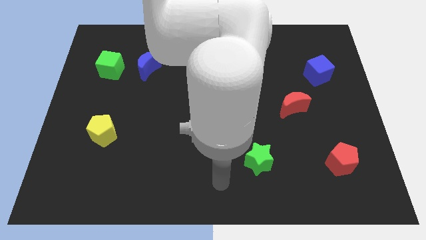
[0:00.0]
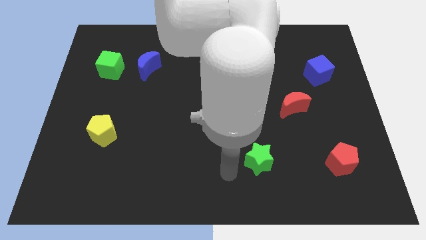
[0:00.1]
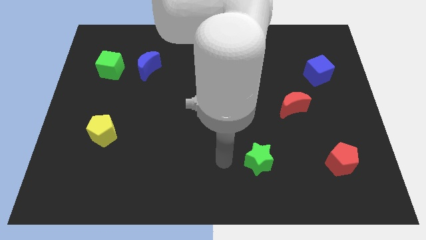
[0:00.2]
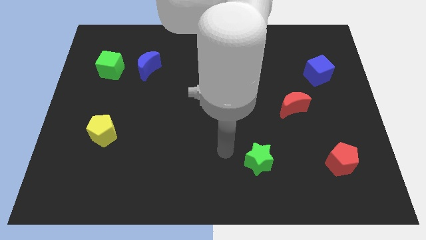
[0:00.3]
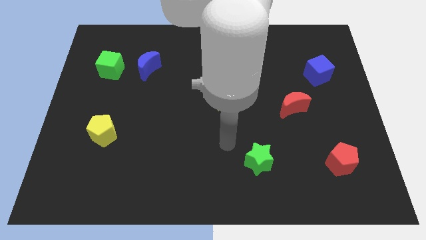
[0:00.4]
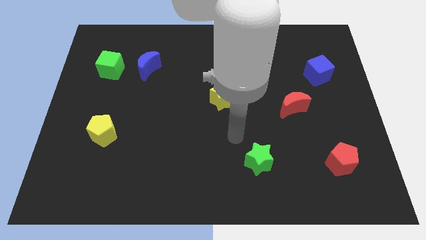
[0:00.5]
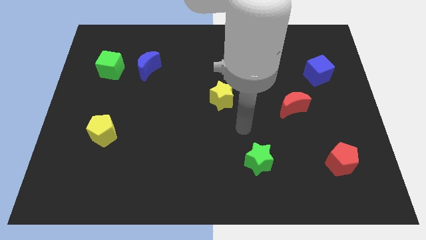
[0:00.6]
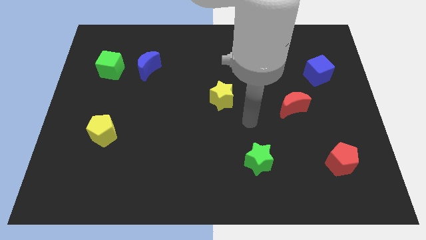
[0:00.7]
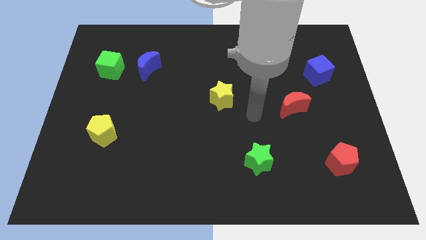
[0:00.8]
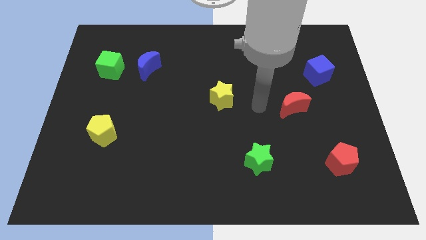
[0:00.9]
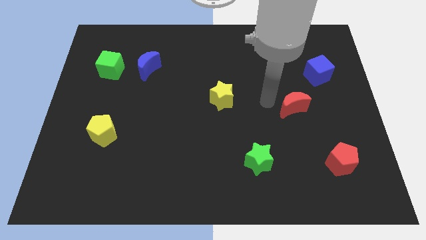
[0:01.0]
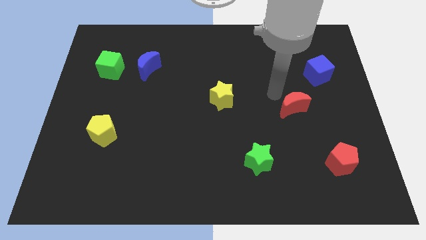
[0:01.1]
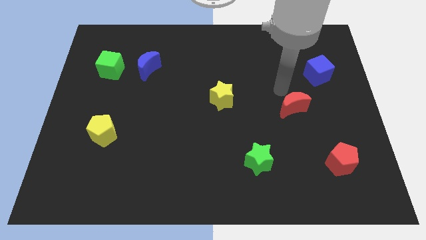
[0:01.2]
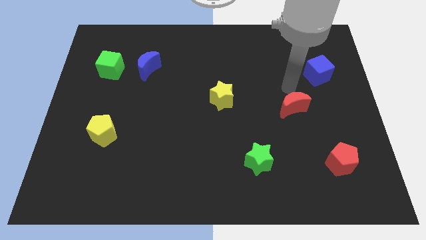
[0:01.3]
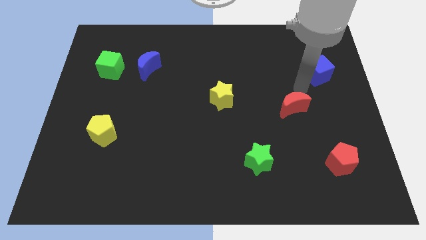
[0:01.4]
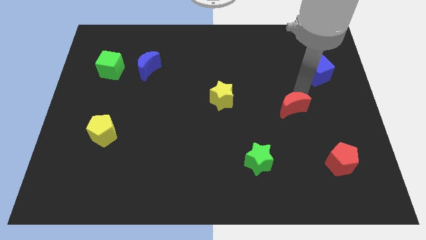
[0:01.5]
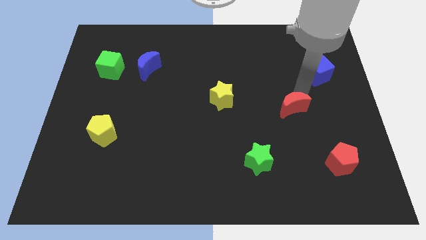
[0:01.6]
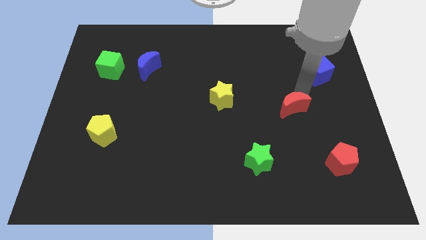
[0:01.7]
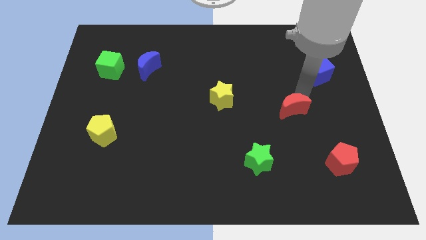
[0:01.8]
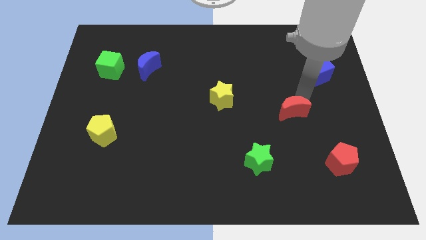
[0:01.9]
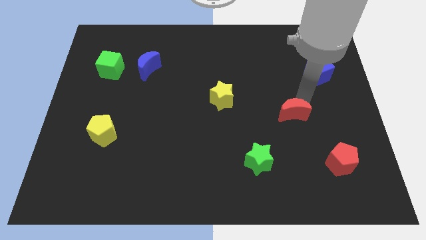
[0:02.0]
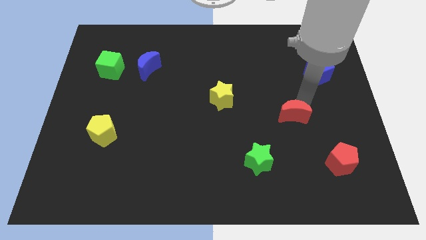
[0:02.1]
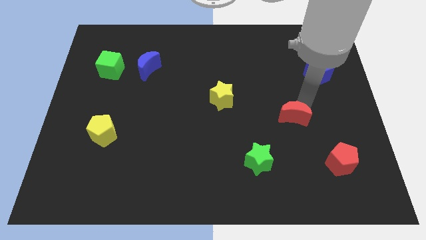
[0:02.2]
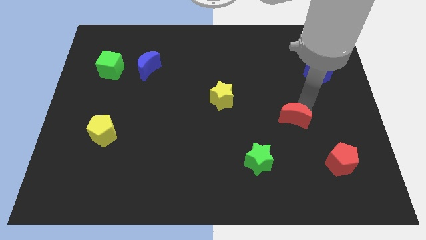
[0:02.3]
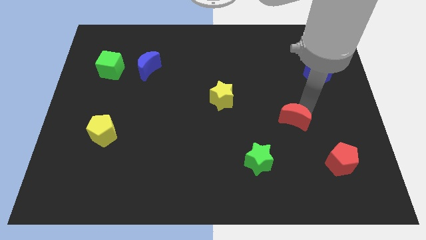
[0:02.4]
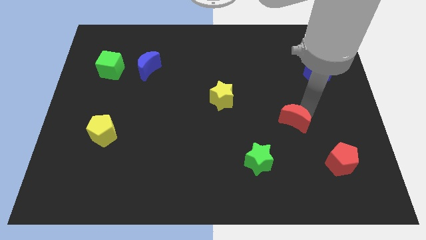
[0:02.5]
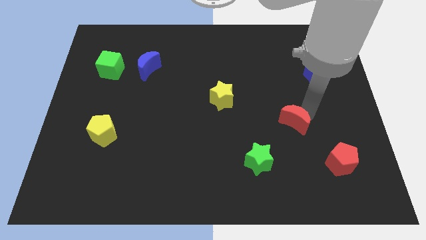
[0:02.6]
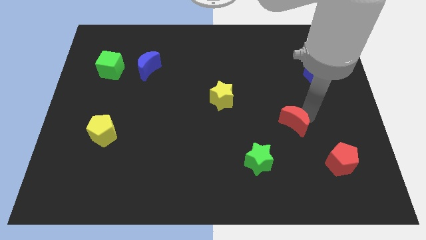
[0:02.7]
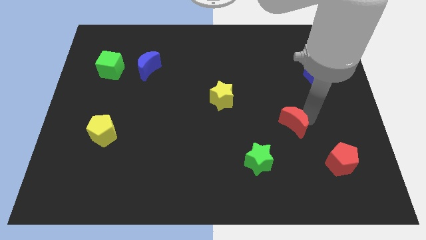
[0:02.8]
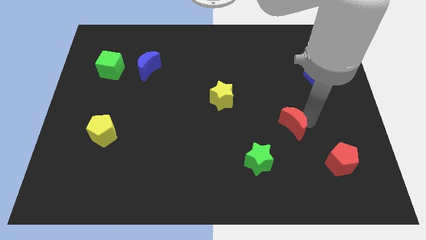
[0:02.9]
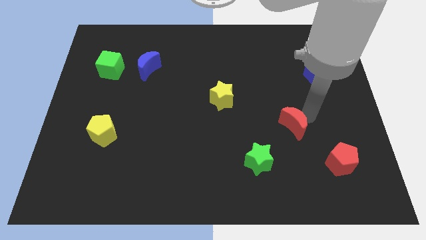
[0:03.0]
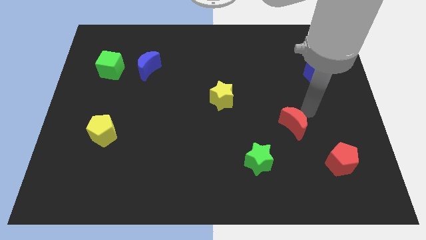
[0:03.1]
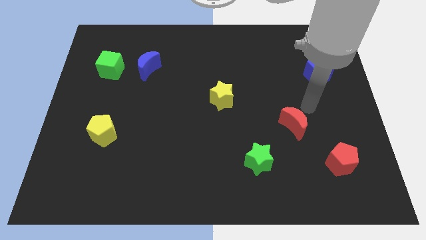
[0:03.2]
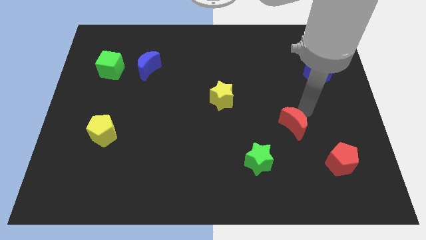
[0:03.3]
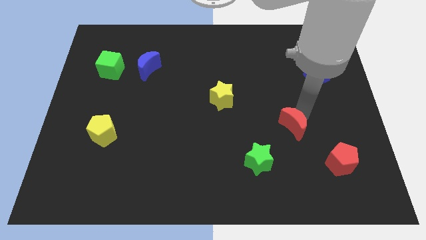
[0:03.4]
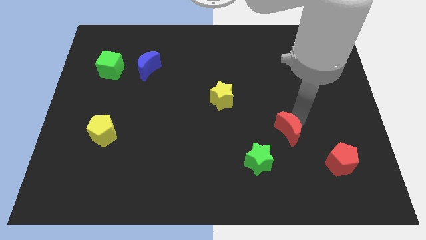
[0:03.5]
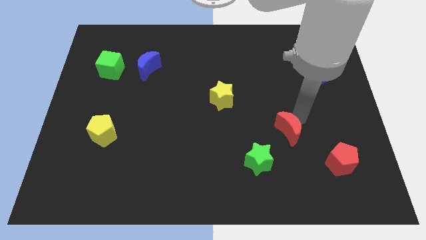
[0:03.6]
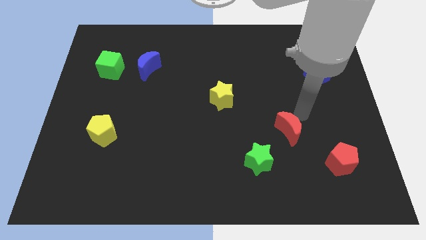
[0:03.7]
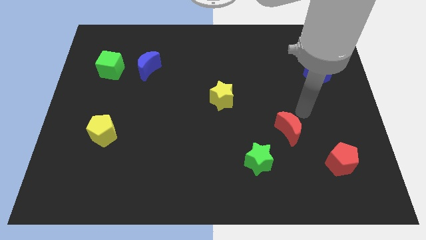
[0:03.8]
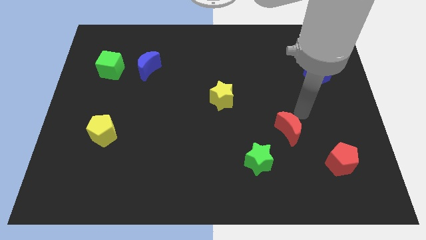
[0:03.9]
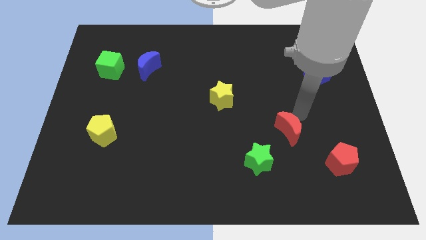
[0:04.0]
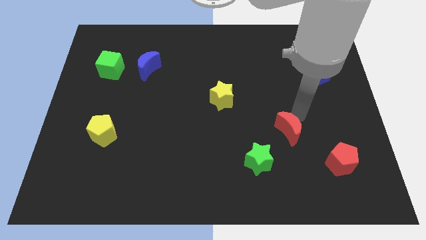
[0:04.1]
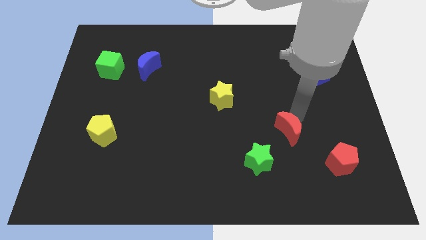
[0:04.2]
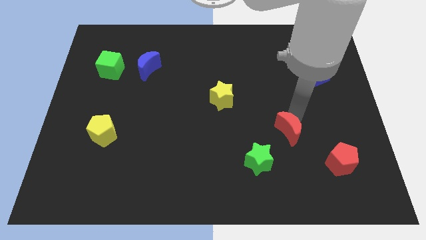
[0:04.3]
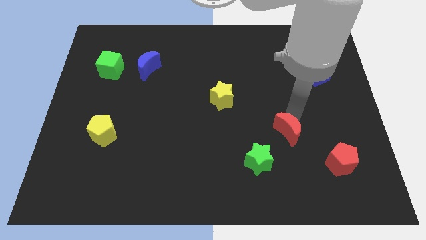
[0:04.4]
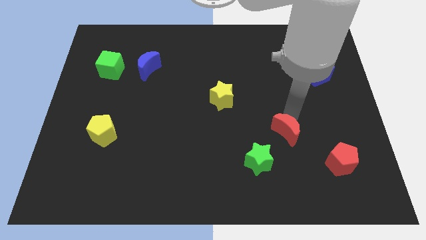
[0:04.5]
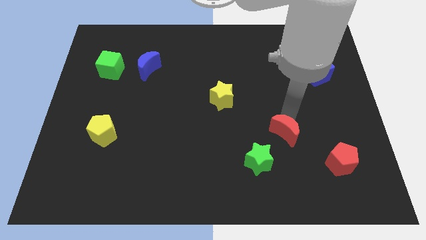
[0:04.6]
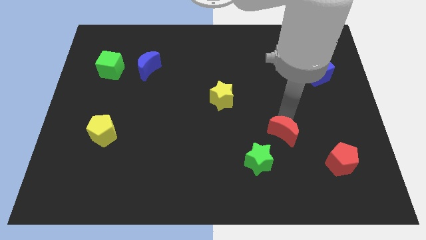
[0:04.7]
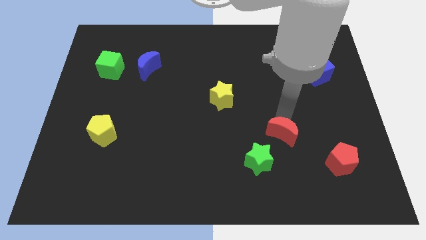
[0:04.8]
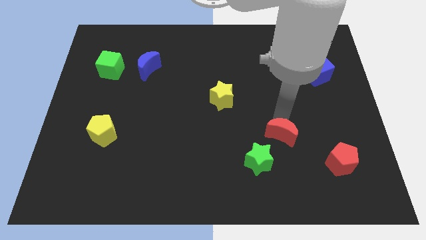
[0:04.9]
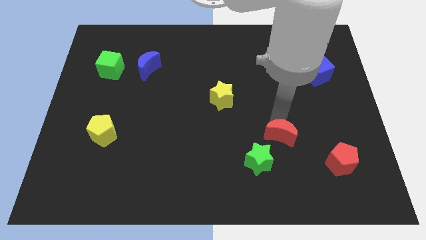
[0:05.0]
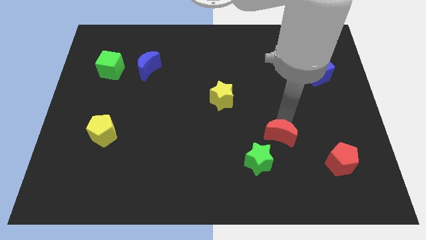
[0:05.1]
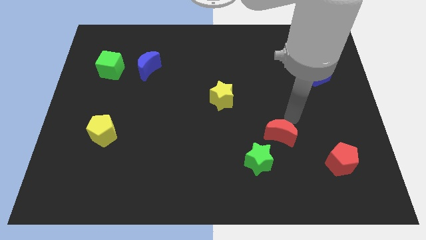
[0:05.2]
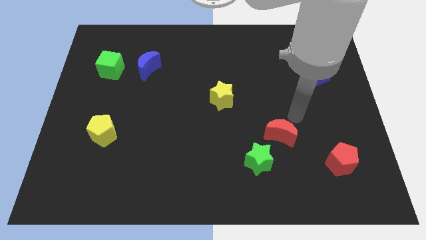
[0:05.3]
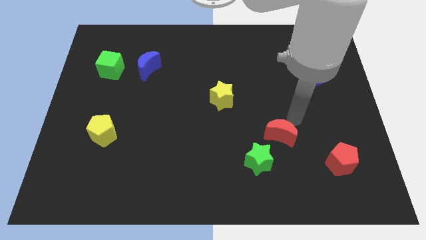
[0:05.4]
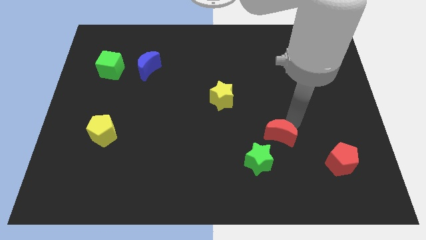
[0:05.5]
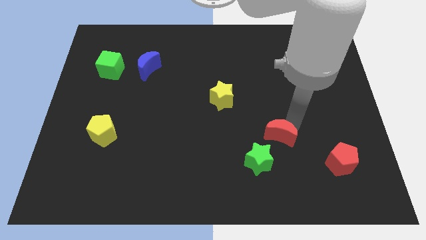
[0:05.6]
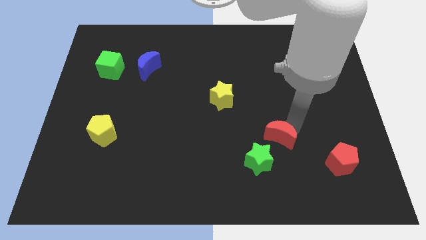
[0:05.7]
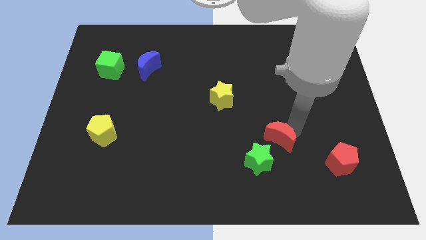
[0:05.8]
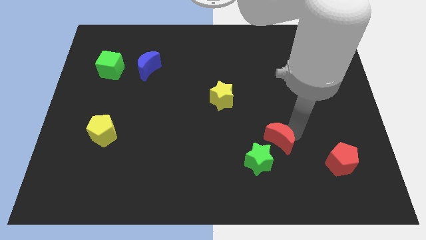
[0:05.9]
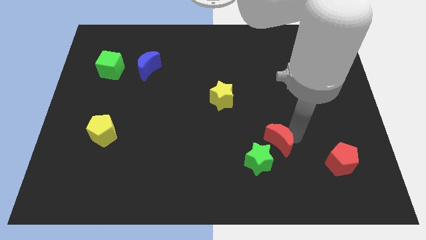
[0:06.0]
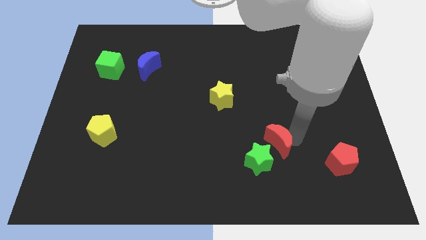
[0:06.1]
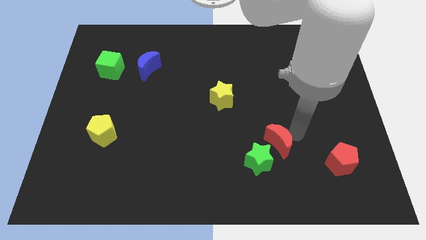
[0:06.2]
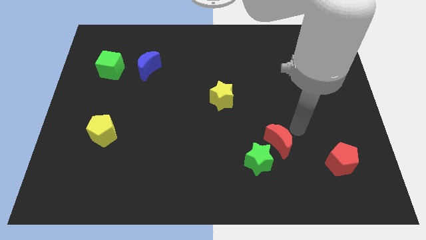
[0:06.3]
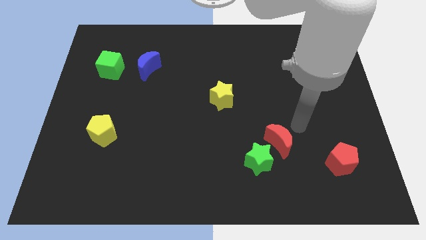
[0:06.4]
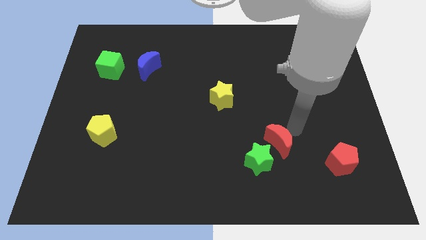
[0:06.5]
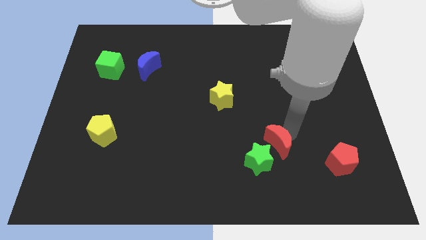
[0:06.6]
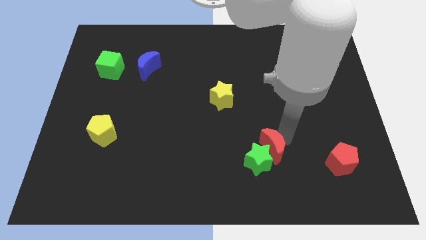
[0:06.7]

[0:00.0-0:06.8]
push the red moon close to the green star
